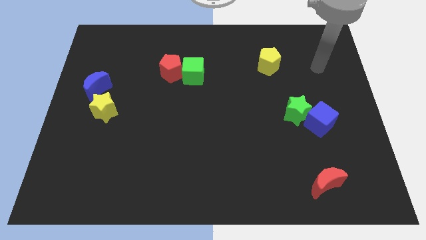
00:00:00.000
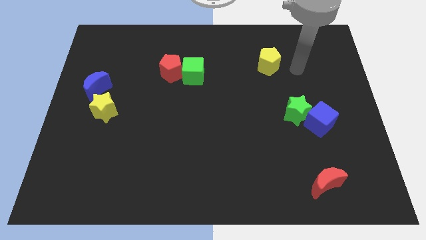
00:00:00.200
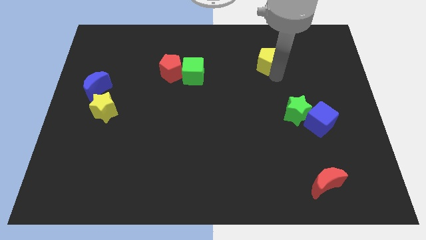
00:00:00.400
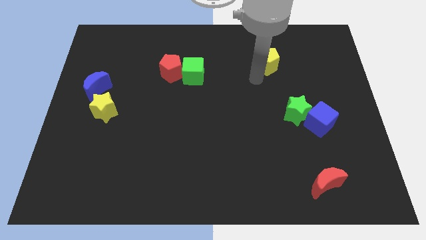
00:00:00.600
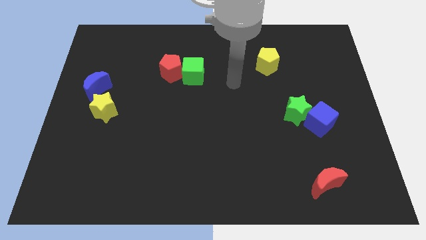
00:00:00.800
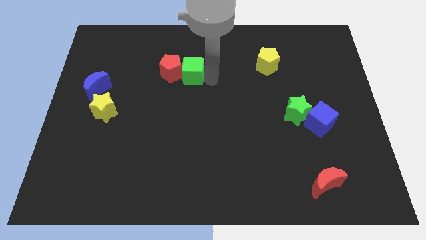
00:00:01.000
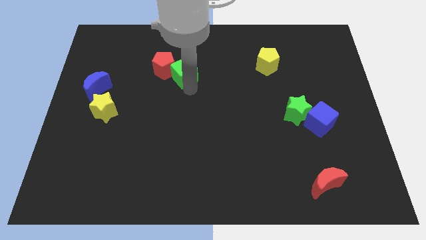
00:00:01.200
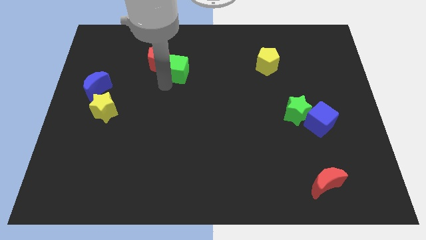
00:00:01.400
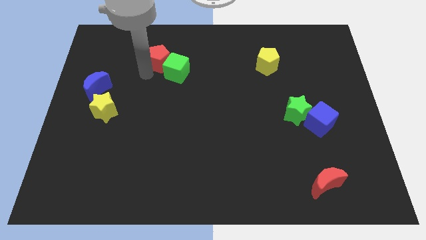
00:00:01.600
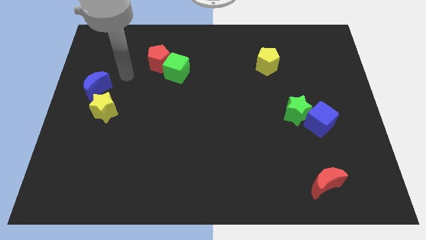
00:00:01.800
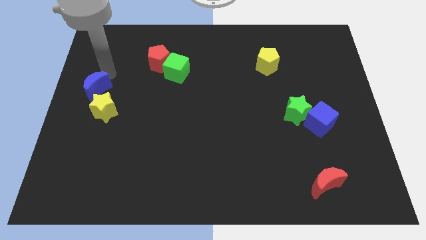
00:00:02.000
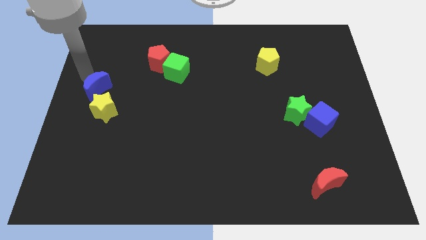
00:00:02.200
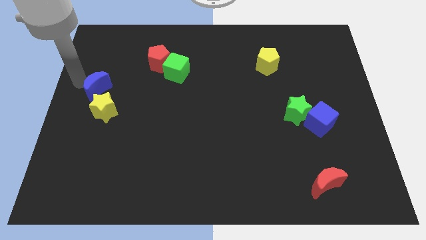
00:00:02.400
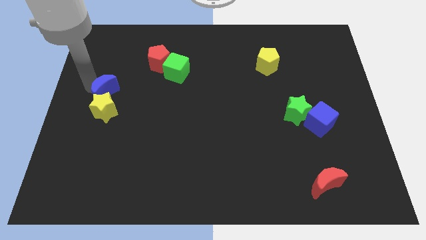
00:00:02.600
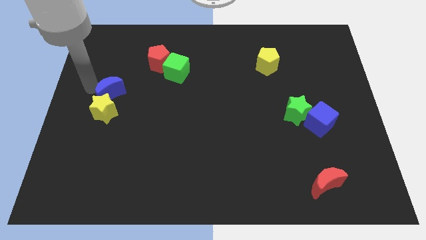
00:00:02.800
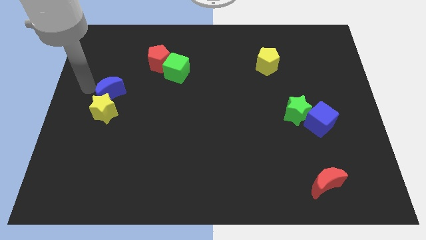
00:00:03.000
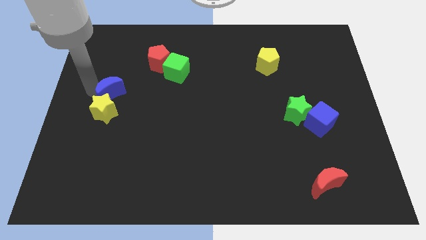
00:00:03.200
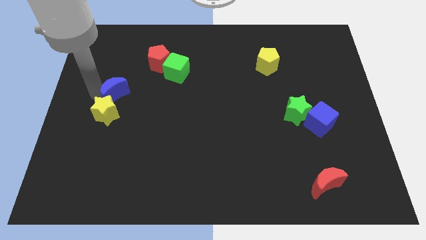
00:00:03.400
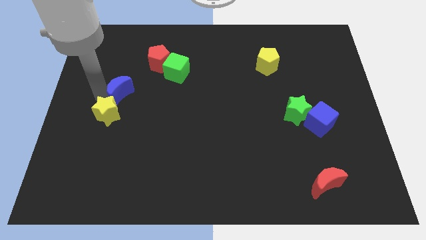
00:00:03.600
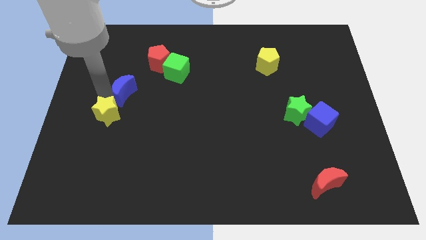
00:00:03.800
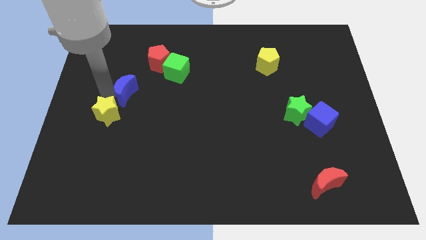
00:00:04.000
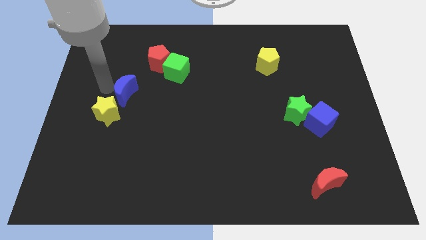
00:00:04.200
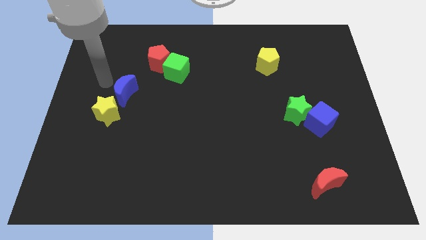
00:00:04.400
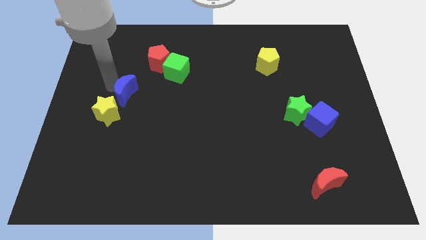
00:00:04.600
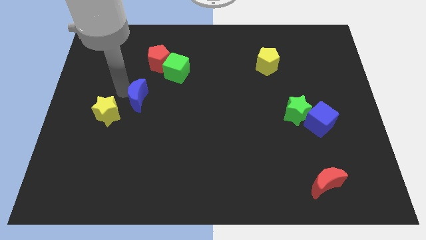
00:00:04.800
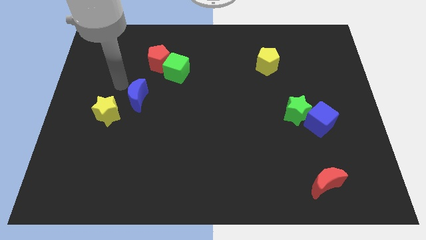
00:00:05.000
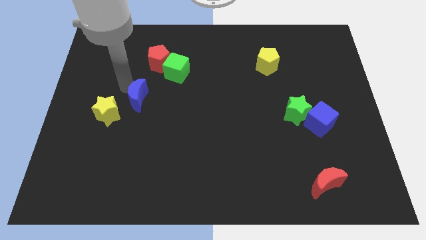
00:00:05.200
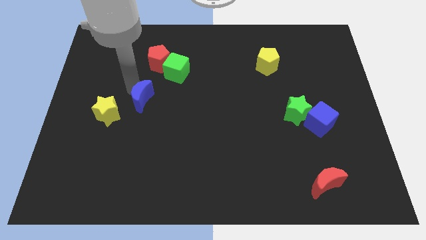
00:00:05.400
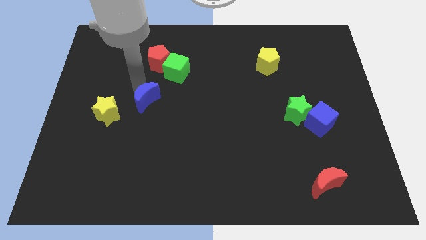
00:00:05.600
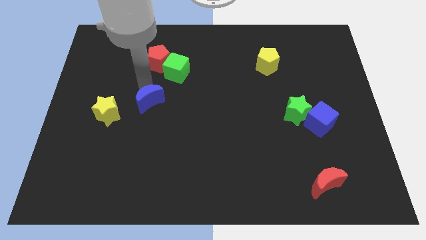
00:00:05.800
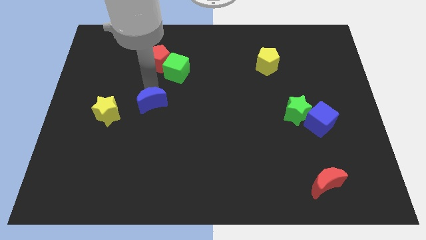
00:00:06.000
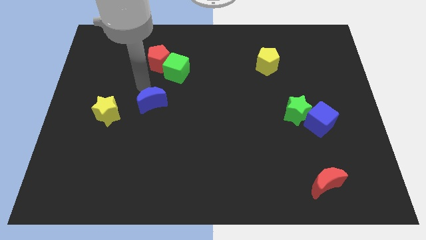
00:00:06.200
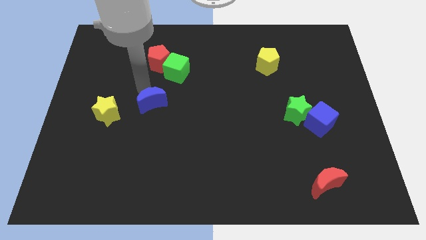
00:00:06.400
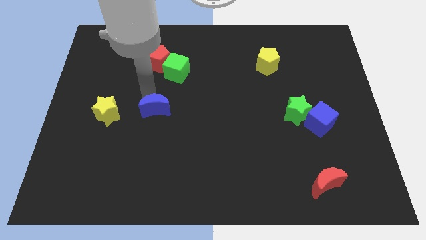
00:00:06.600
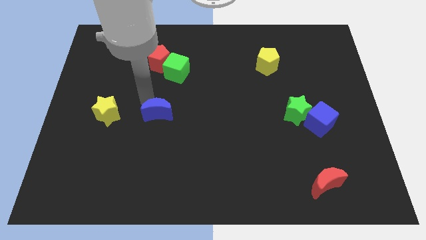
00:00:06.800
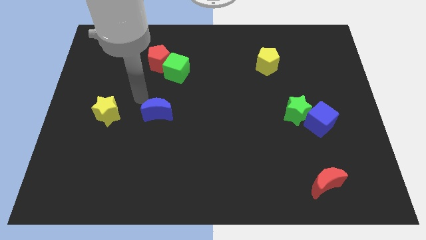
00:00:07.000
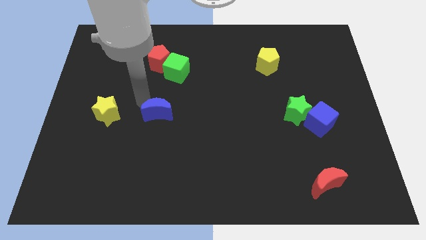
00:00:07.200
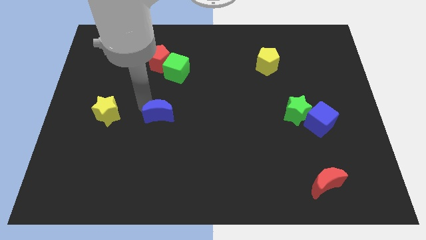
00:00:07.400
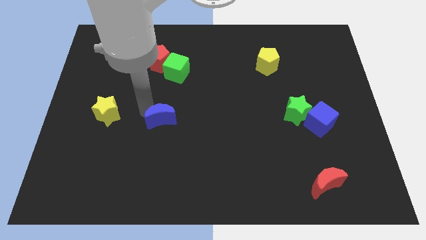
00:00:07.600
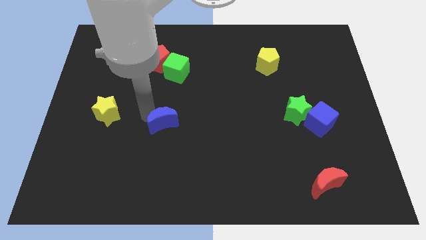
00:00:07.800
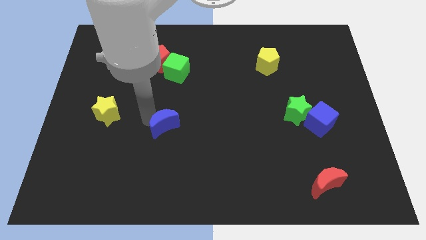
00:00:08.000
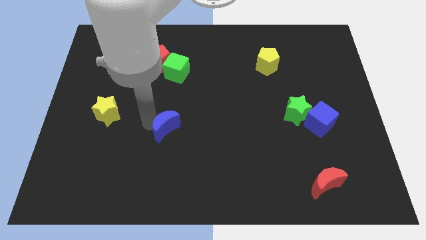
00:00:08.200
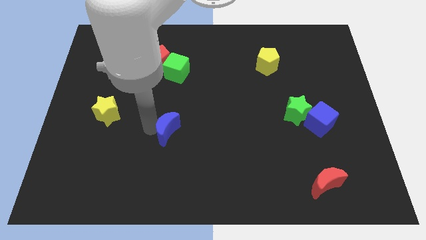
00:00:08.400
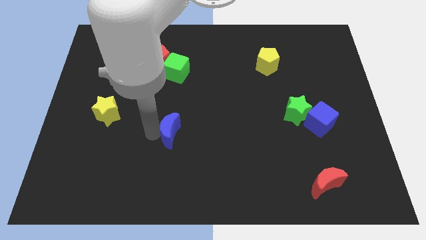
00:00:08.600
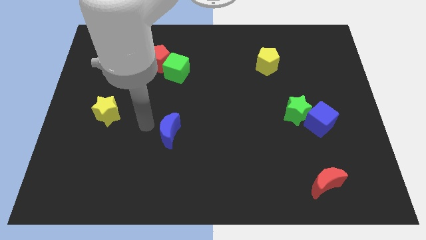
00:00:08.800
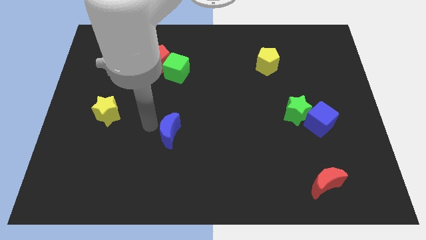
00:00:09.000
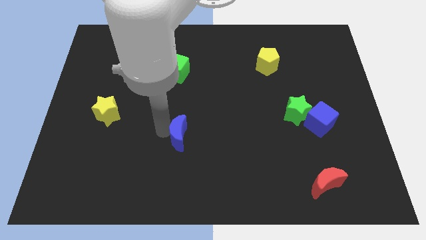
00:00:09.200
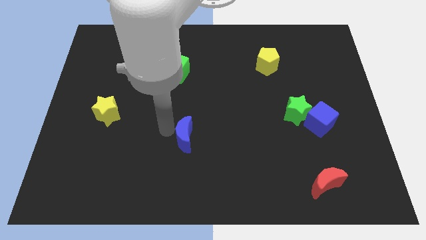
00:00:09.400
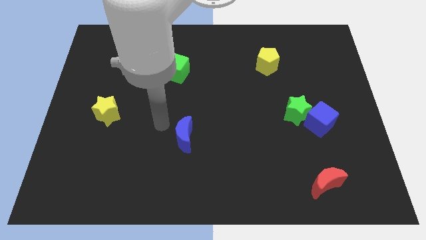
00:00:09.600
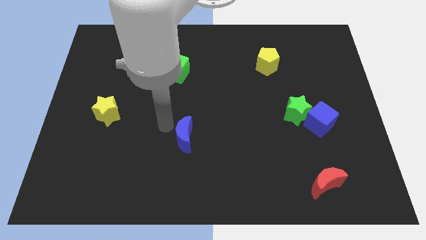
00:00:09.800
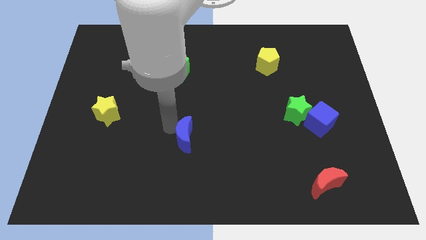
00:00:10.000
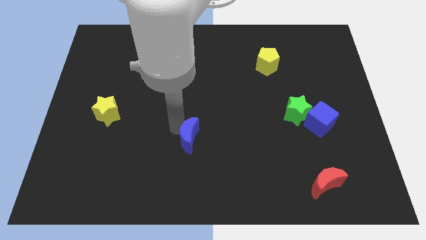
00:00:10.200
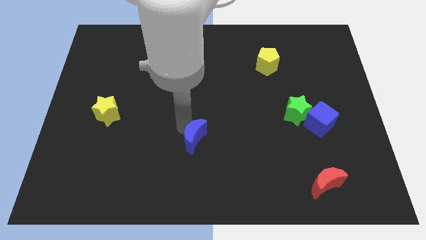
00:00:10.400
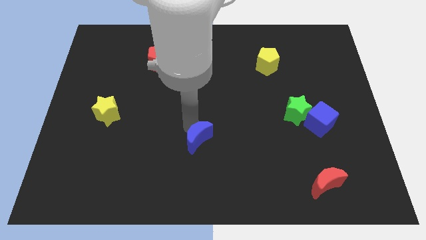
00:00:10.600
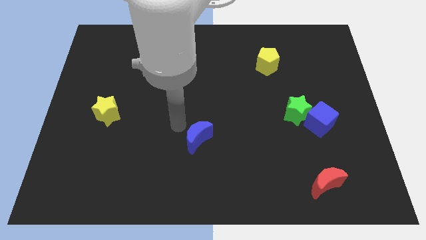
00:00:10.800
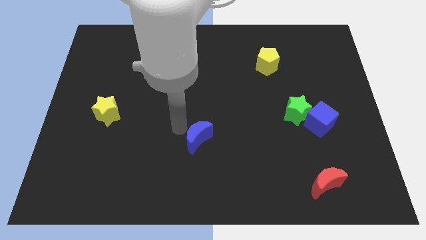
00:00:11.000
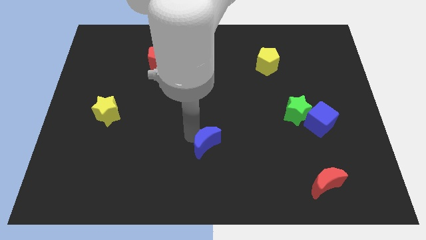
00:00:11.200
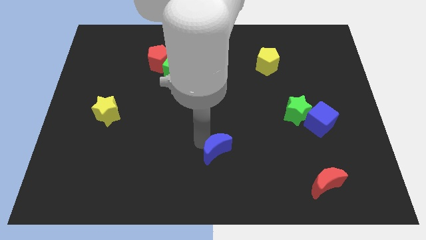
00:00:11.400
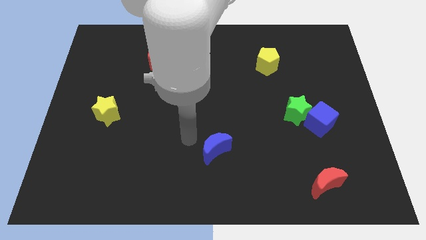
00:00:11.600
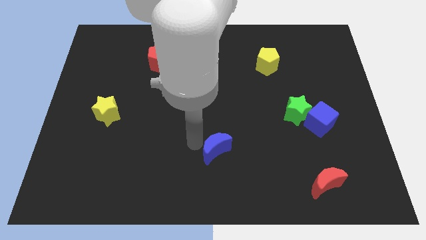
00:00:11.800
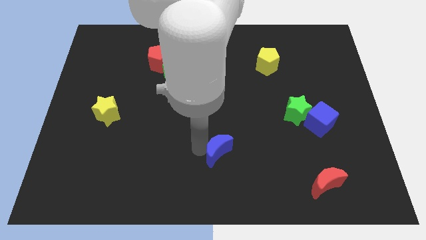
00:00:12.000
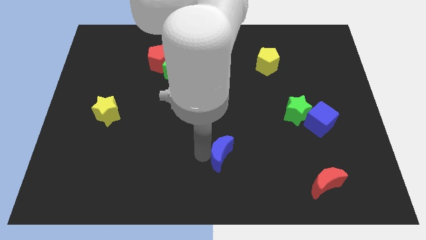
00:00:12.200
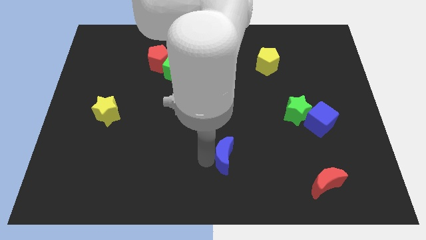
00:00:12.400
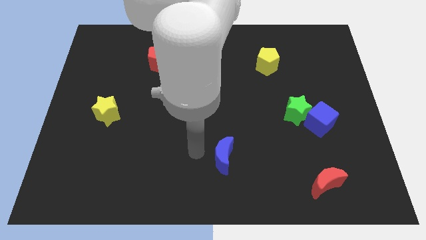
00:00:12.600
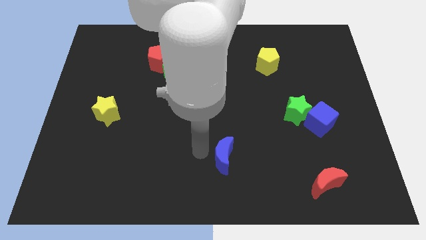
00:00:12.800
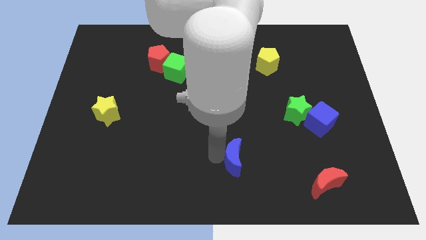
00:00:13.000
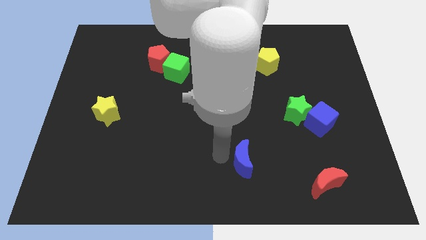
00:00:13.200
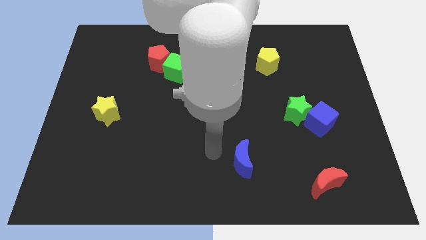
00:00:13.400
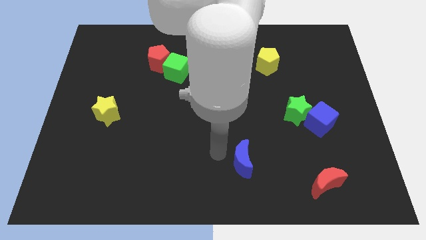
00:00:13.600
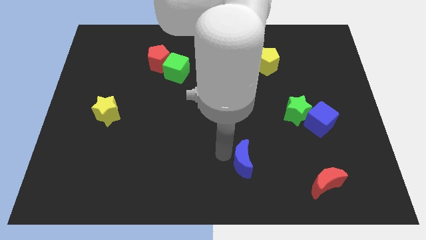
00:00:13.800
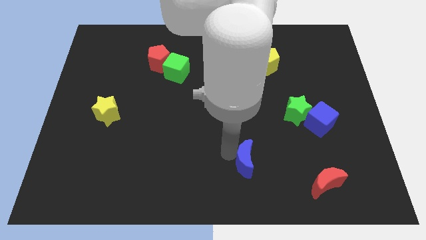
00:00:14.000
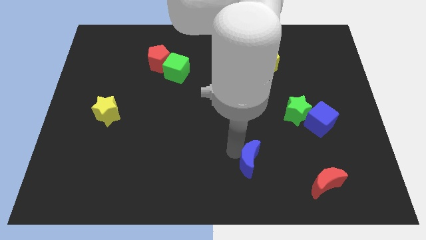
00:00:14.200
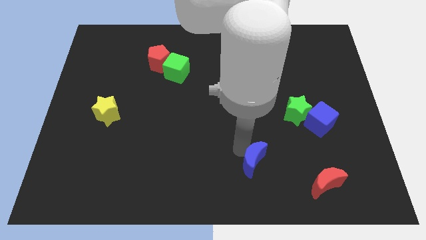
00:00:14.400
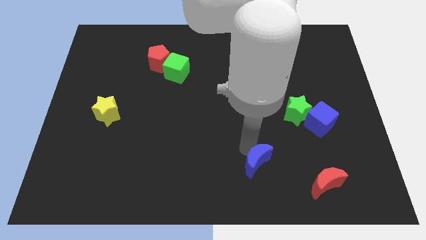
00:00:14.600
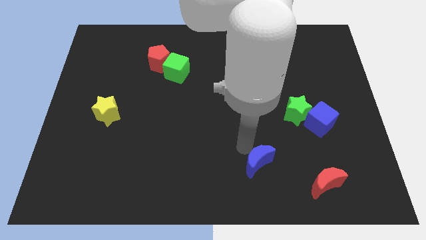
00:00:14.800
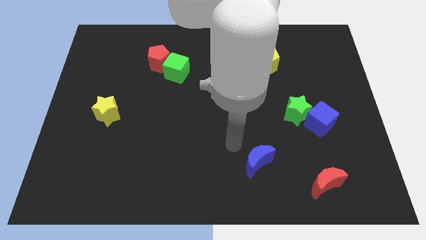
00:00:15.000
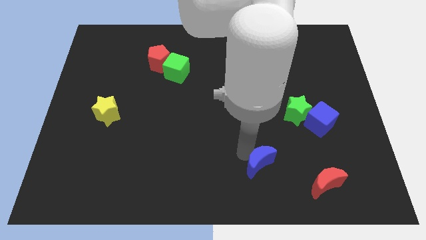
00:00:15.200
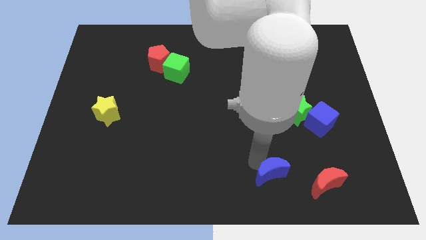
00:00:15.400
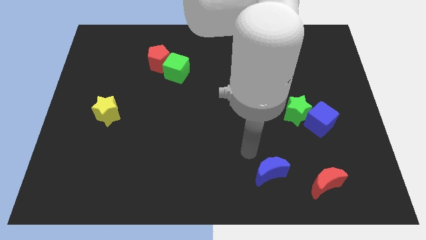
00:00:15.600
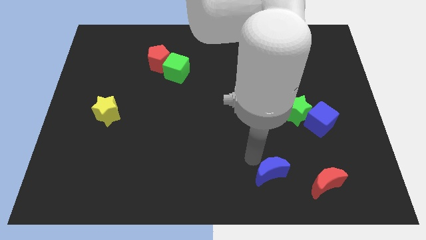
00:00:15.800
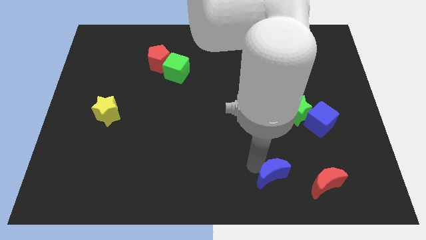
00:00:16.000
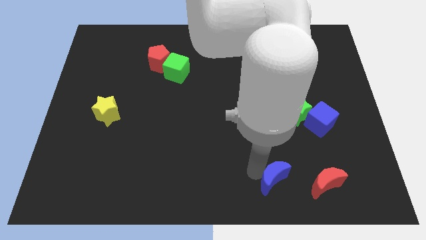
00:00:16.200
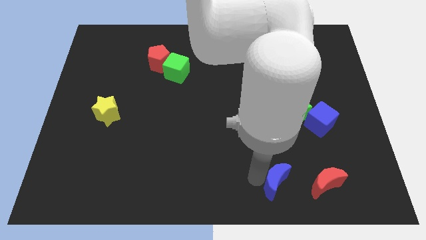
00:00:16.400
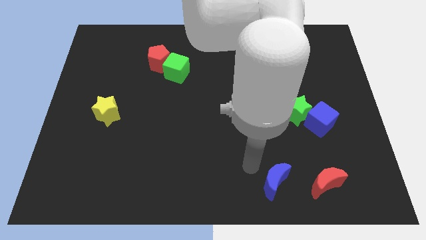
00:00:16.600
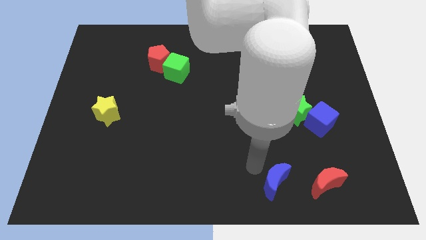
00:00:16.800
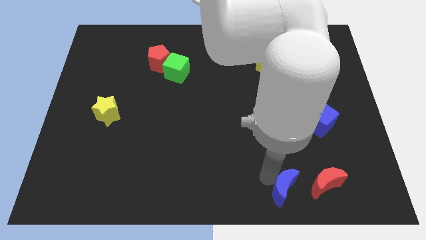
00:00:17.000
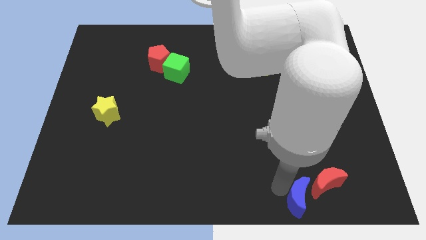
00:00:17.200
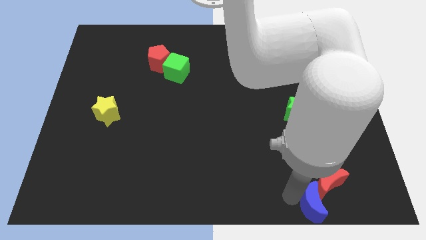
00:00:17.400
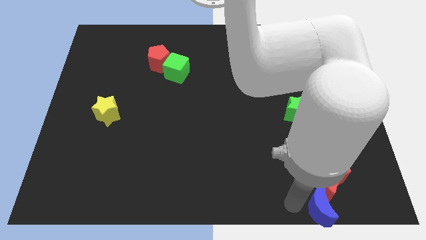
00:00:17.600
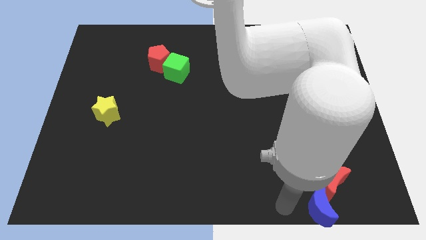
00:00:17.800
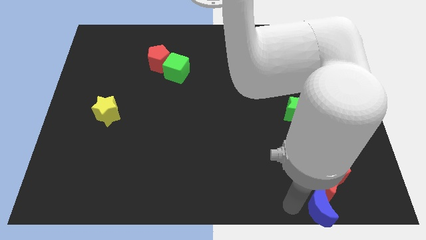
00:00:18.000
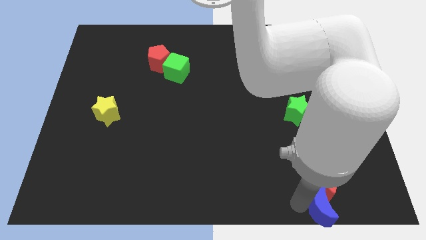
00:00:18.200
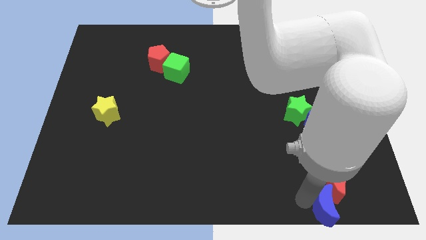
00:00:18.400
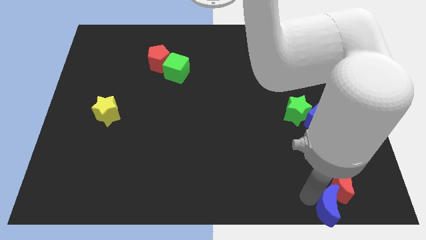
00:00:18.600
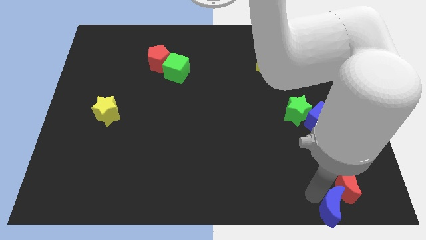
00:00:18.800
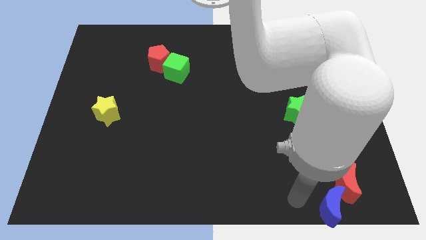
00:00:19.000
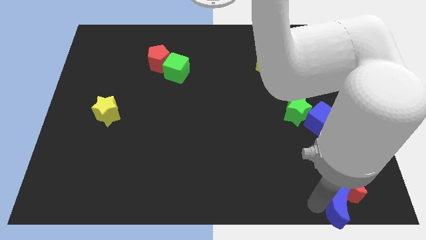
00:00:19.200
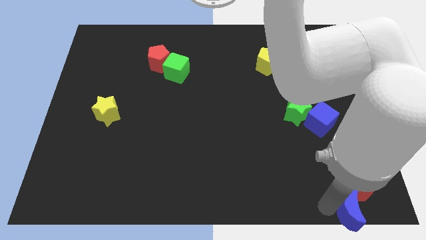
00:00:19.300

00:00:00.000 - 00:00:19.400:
push the blue moon to the bottom right corner
